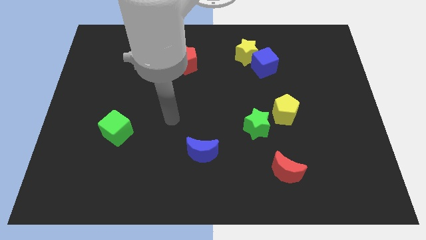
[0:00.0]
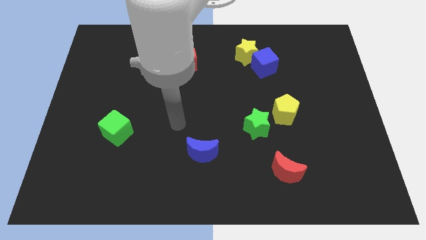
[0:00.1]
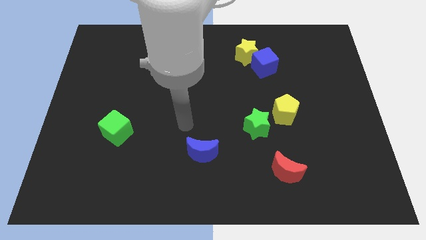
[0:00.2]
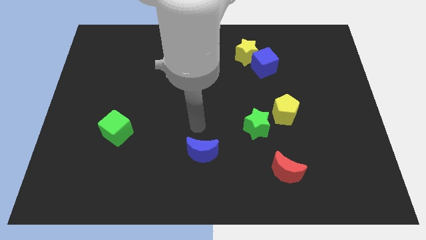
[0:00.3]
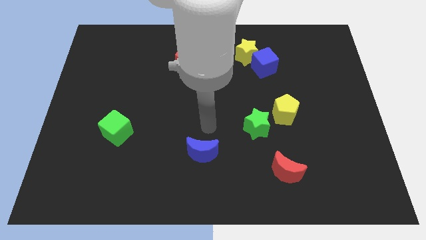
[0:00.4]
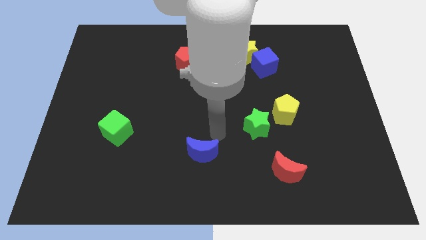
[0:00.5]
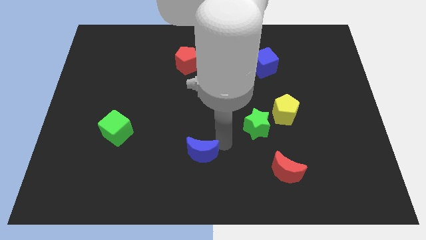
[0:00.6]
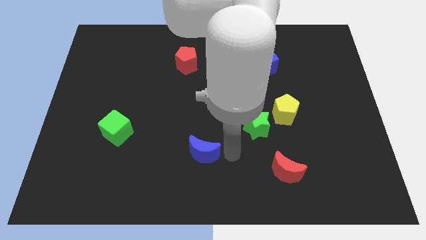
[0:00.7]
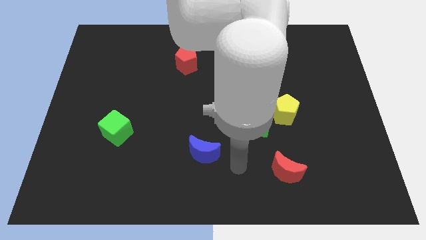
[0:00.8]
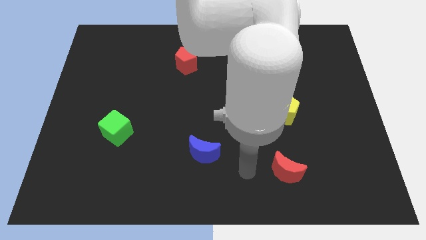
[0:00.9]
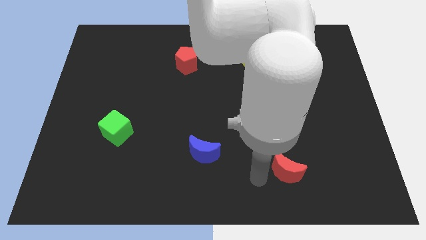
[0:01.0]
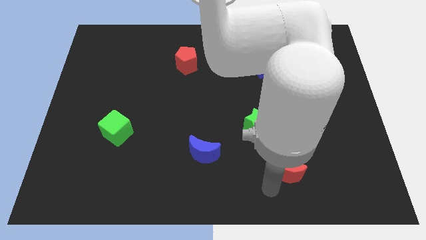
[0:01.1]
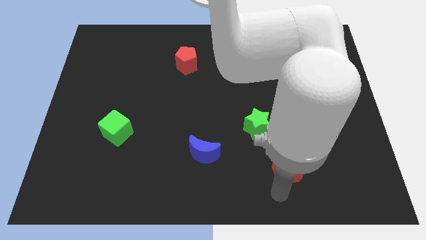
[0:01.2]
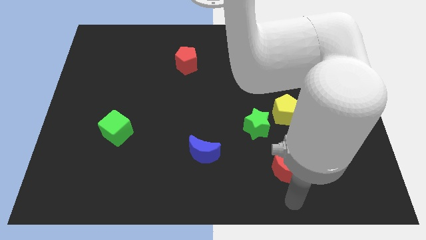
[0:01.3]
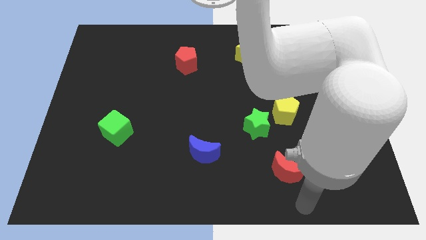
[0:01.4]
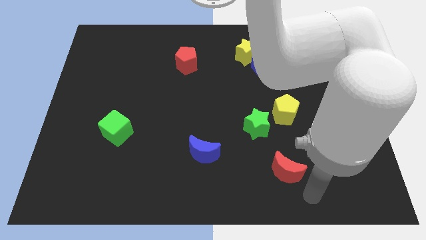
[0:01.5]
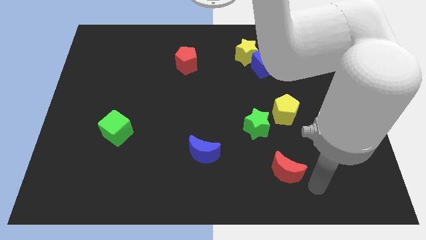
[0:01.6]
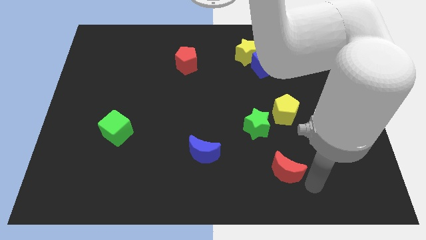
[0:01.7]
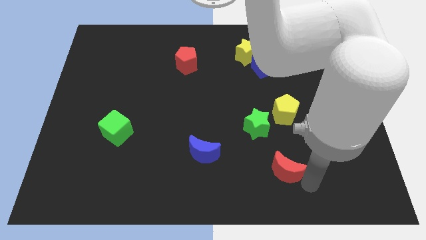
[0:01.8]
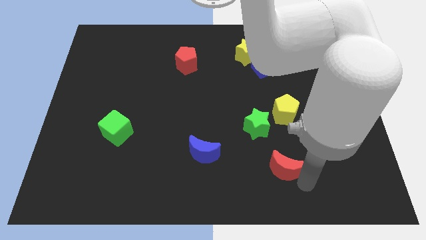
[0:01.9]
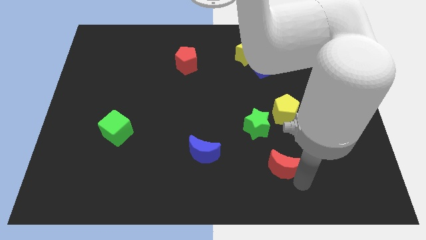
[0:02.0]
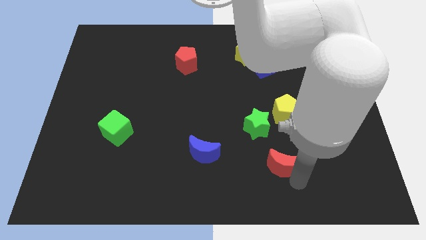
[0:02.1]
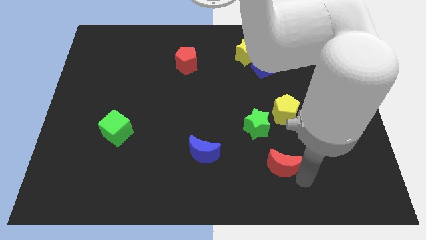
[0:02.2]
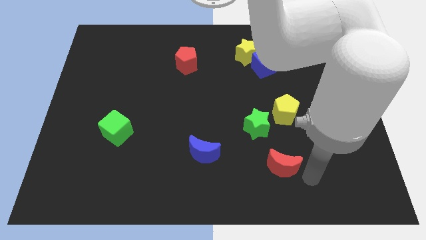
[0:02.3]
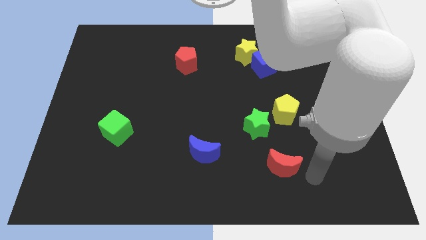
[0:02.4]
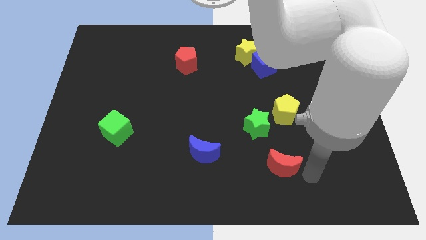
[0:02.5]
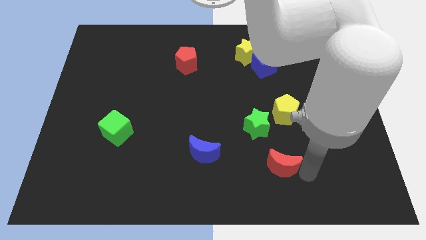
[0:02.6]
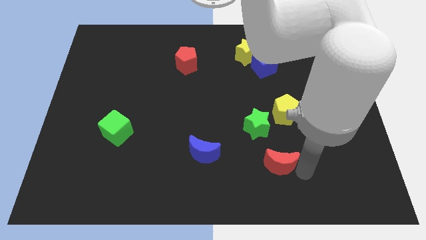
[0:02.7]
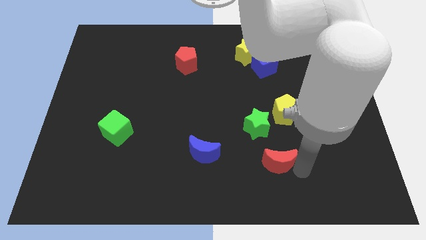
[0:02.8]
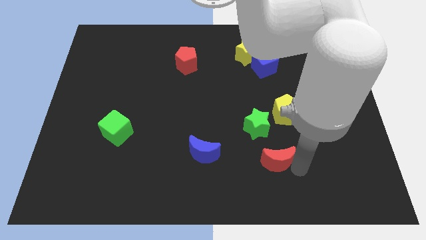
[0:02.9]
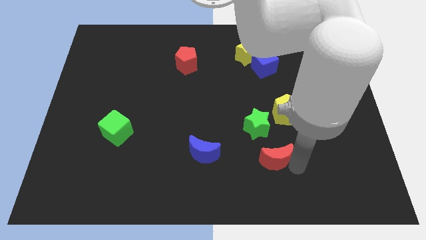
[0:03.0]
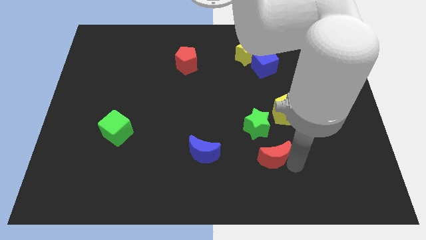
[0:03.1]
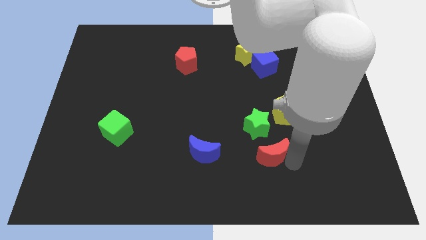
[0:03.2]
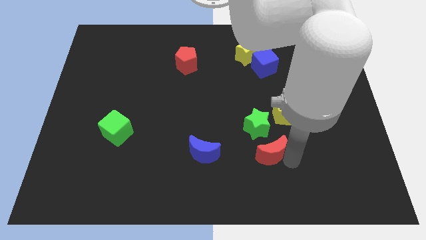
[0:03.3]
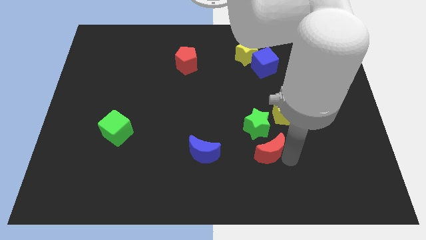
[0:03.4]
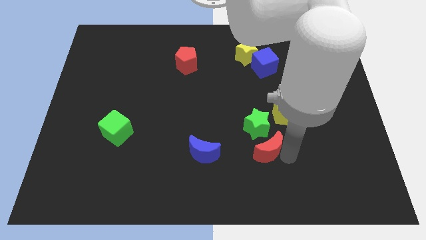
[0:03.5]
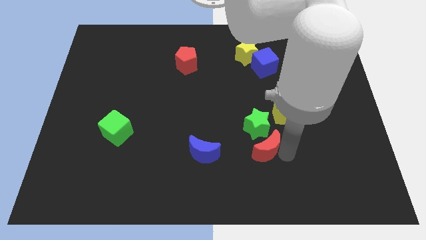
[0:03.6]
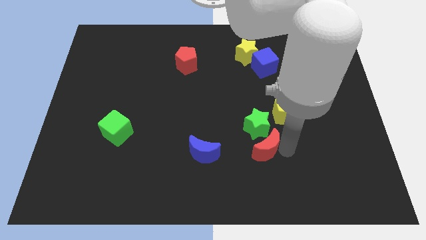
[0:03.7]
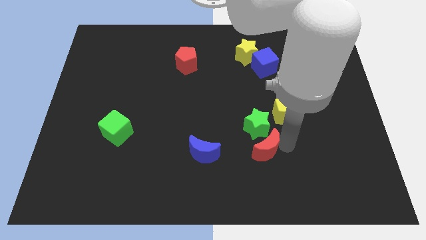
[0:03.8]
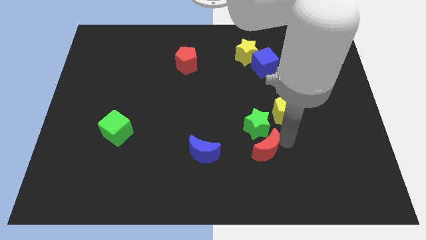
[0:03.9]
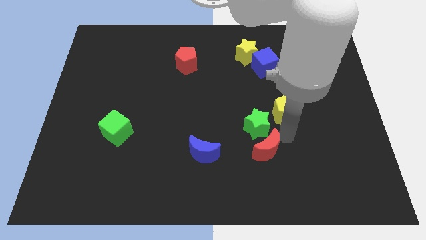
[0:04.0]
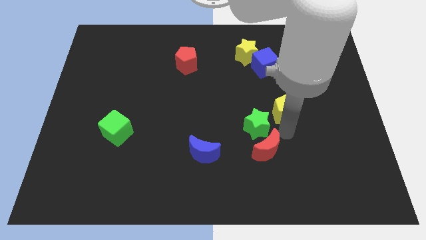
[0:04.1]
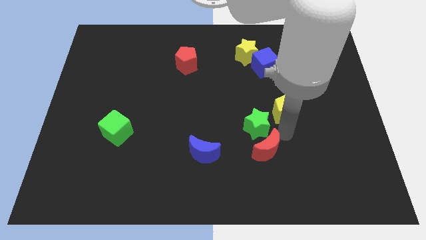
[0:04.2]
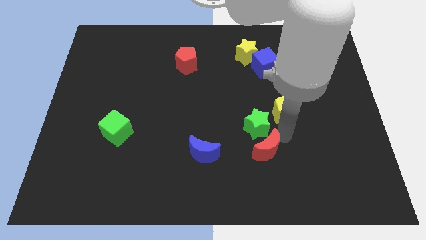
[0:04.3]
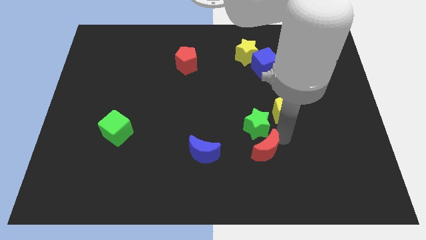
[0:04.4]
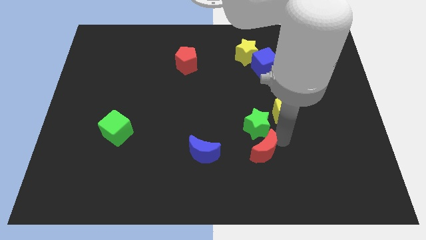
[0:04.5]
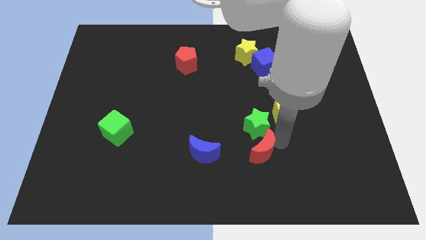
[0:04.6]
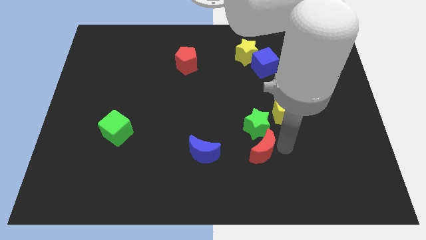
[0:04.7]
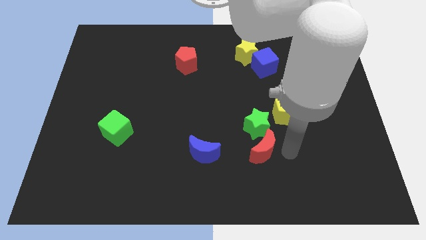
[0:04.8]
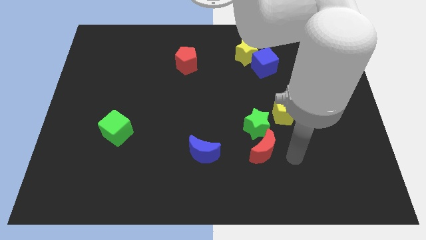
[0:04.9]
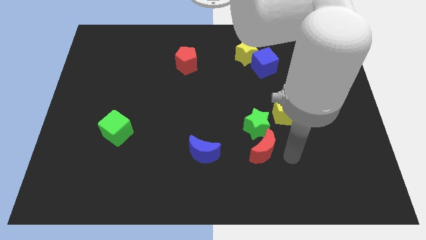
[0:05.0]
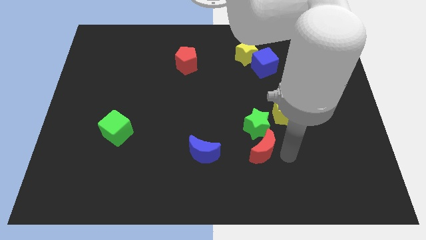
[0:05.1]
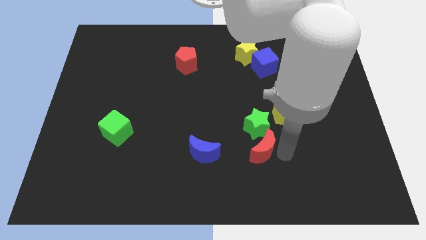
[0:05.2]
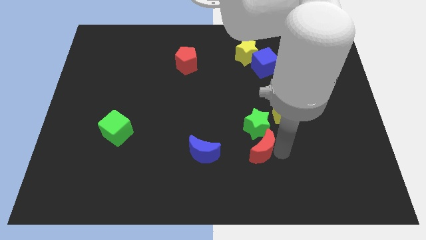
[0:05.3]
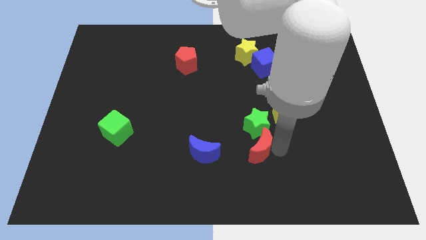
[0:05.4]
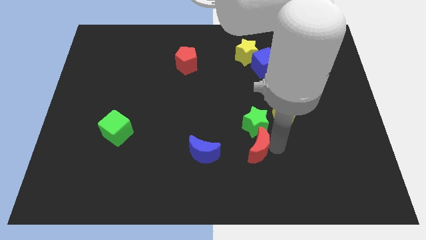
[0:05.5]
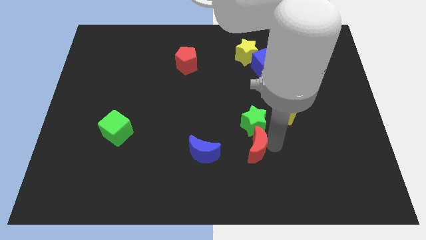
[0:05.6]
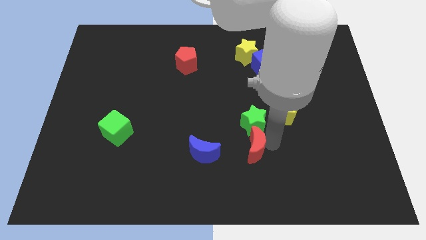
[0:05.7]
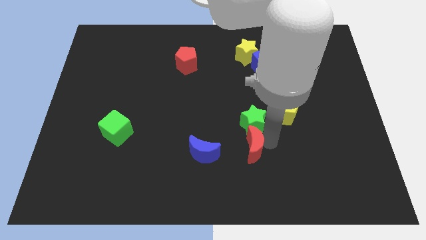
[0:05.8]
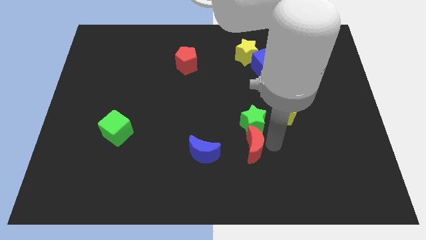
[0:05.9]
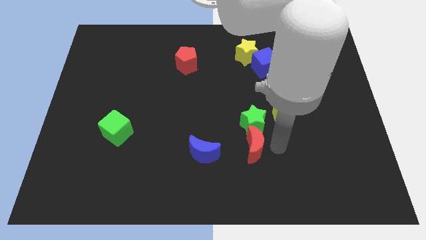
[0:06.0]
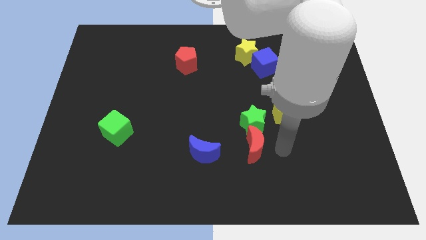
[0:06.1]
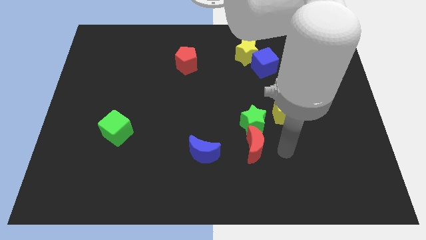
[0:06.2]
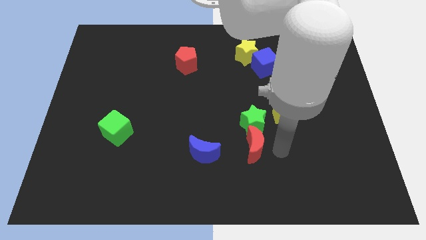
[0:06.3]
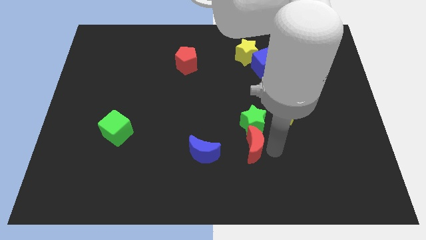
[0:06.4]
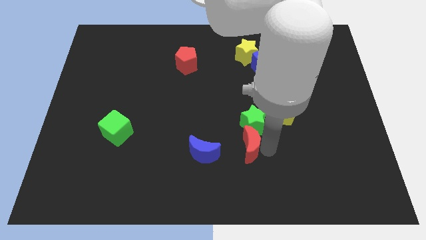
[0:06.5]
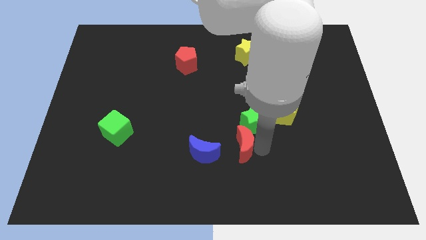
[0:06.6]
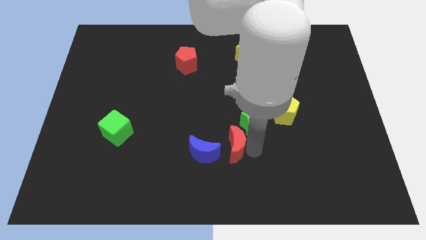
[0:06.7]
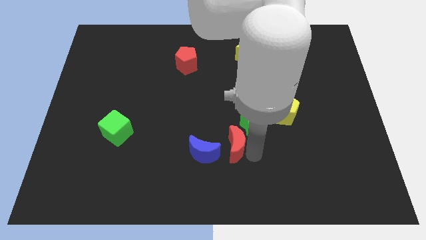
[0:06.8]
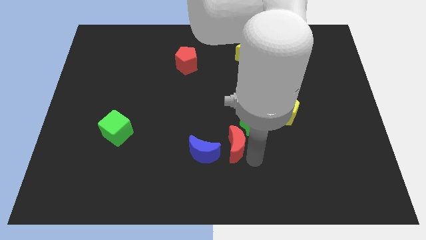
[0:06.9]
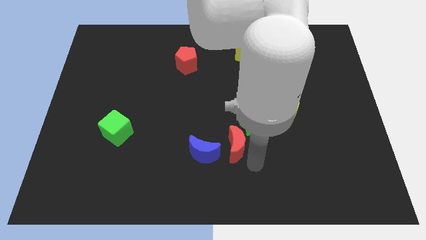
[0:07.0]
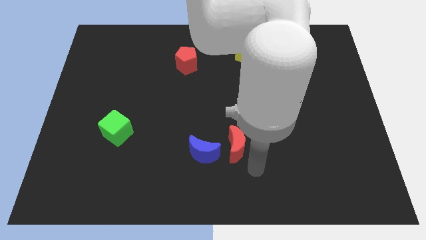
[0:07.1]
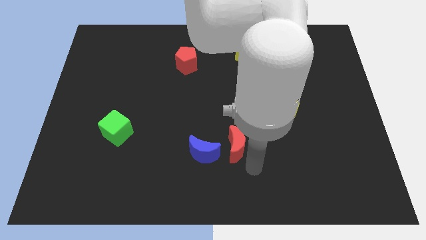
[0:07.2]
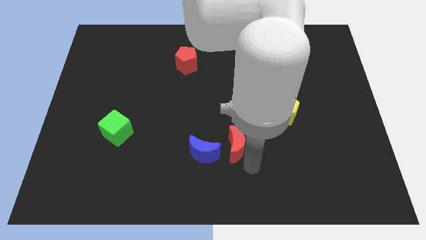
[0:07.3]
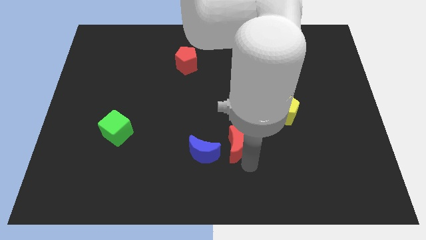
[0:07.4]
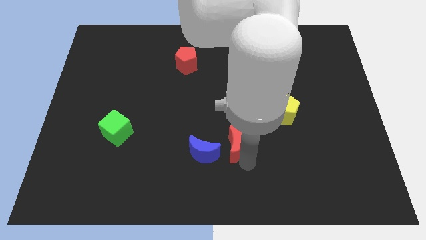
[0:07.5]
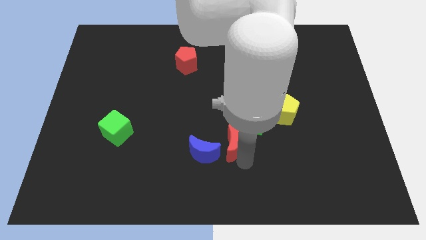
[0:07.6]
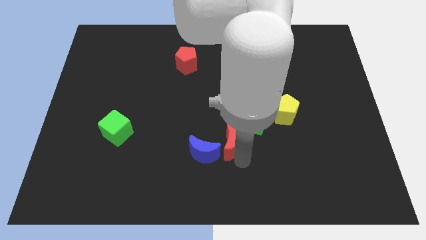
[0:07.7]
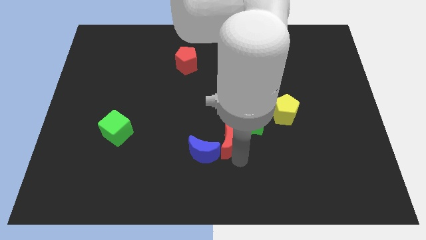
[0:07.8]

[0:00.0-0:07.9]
move the red moon to the middle
